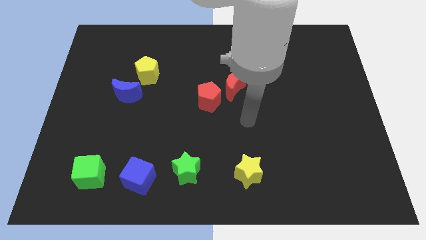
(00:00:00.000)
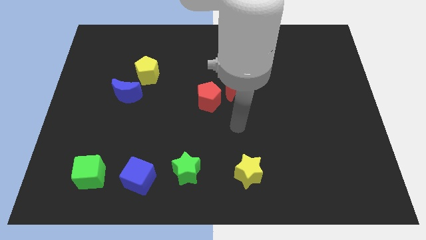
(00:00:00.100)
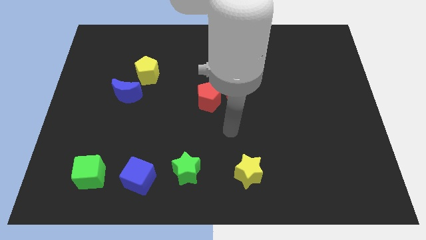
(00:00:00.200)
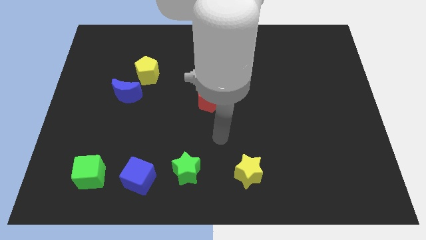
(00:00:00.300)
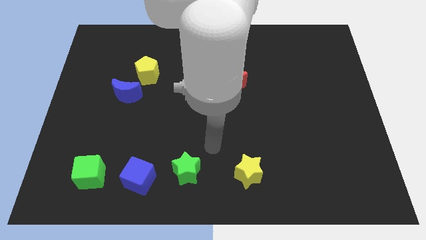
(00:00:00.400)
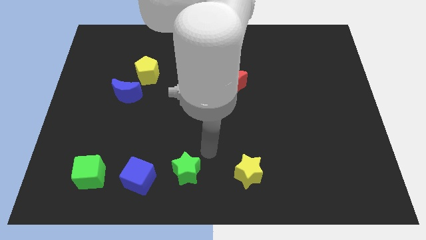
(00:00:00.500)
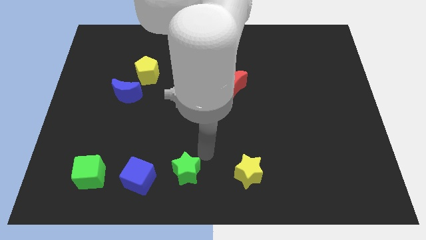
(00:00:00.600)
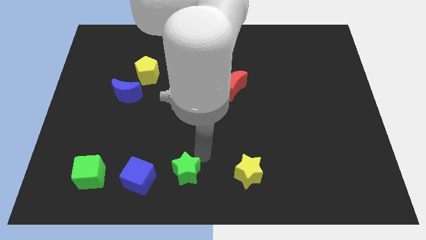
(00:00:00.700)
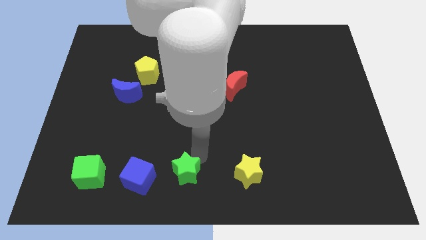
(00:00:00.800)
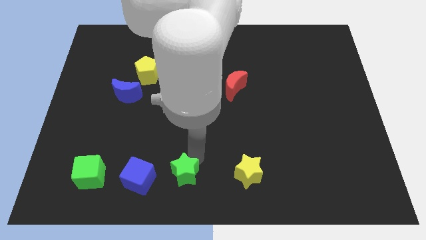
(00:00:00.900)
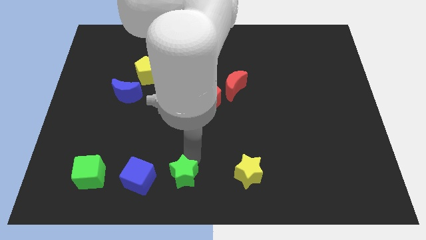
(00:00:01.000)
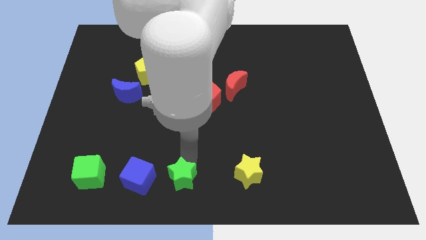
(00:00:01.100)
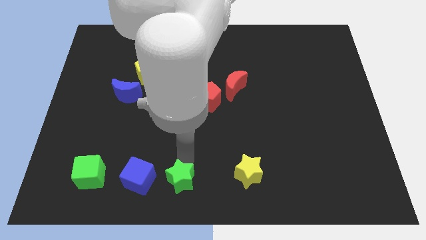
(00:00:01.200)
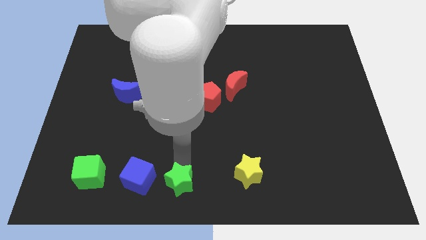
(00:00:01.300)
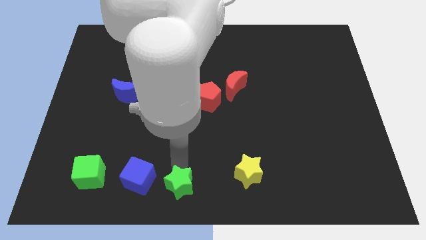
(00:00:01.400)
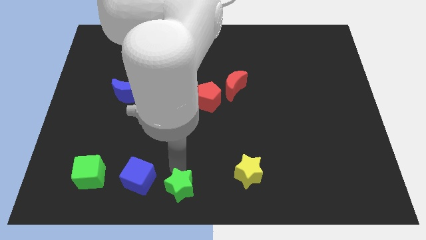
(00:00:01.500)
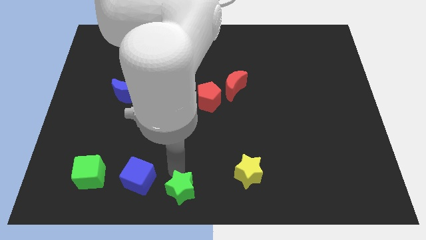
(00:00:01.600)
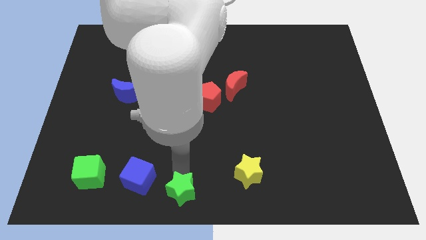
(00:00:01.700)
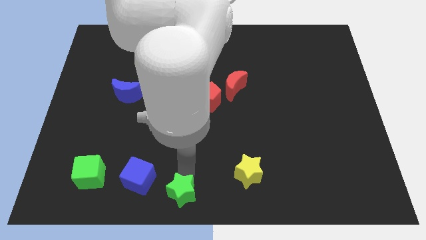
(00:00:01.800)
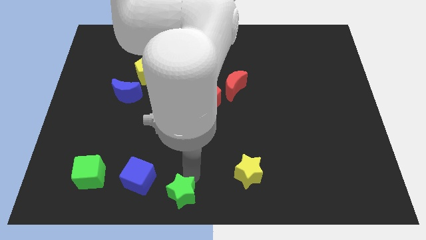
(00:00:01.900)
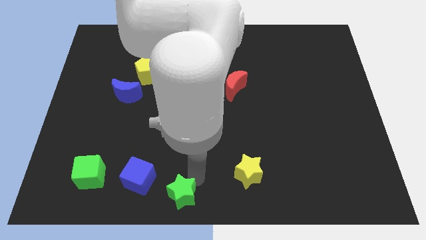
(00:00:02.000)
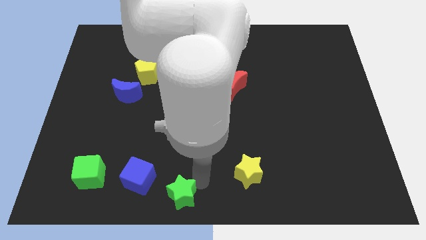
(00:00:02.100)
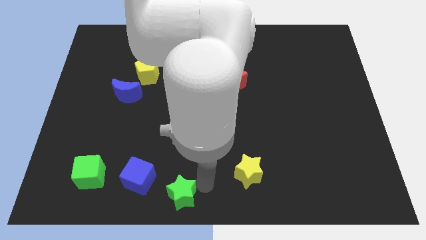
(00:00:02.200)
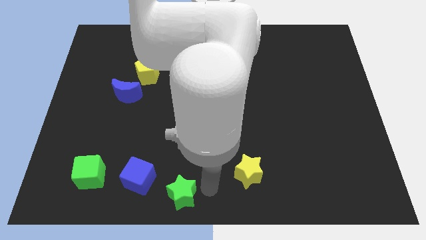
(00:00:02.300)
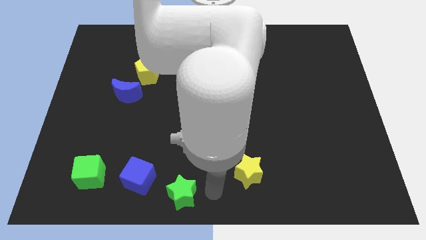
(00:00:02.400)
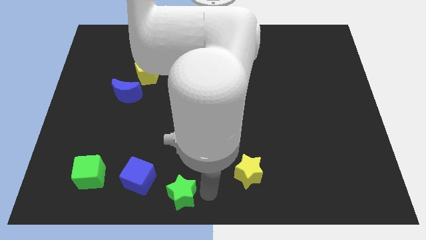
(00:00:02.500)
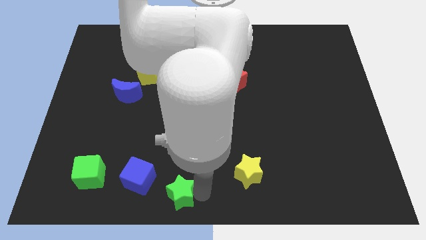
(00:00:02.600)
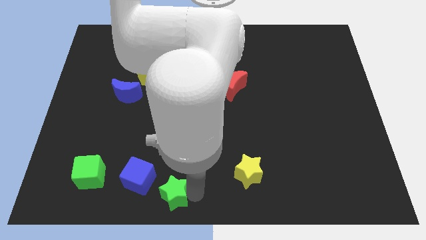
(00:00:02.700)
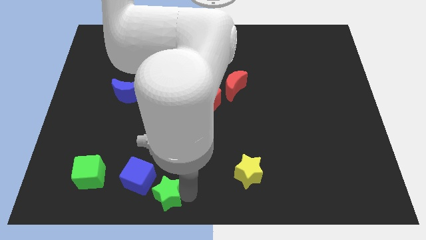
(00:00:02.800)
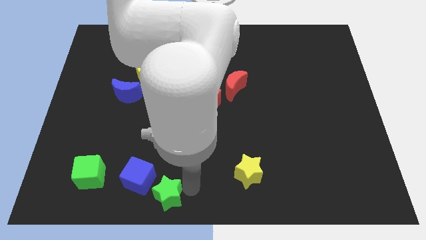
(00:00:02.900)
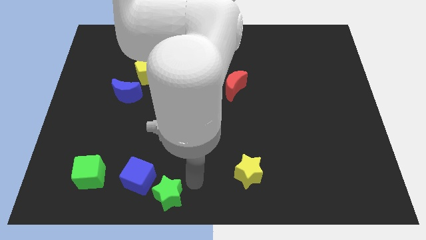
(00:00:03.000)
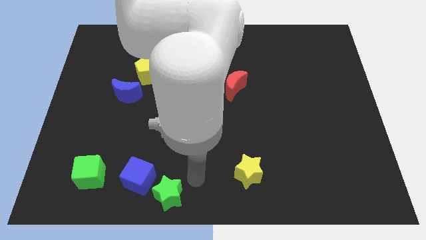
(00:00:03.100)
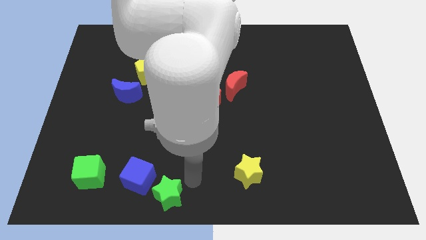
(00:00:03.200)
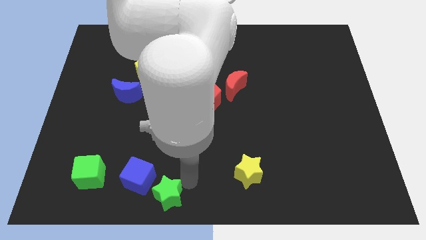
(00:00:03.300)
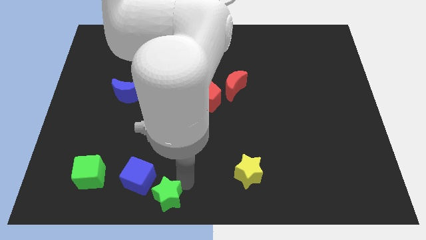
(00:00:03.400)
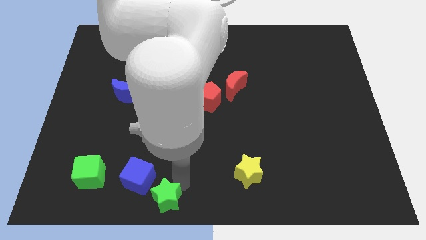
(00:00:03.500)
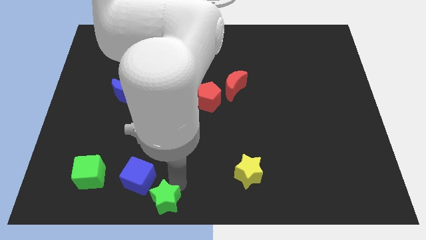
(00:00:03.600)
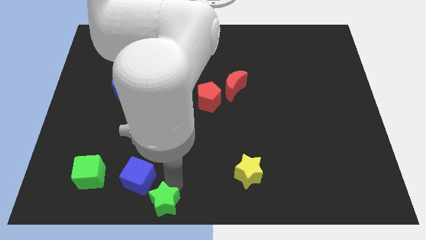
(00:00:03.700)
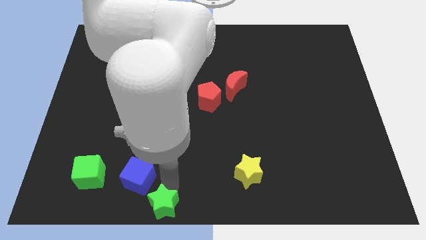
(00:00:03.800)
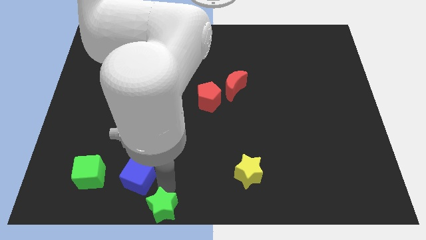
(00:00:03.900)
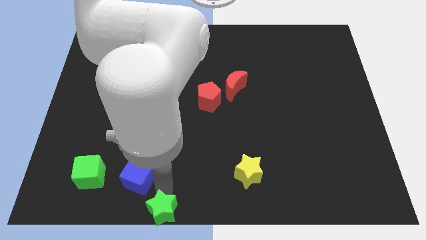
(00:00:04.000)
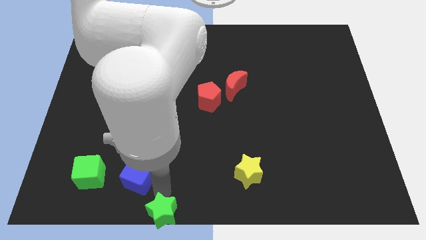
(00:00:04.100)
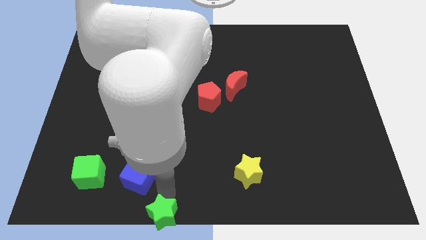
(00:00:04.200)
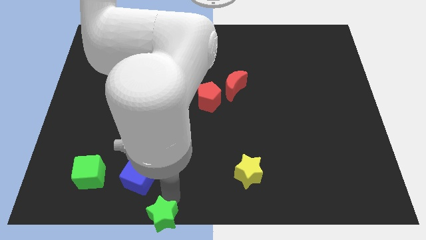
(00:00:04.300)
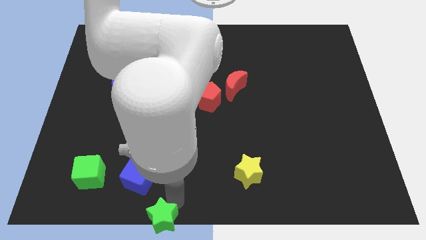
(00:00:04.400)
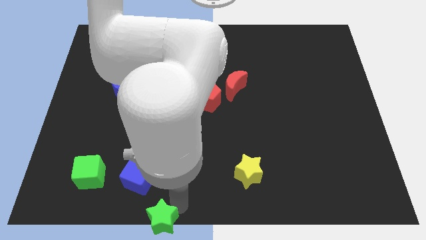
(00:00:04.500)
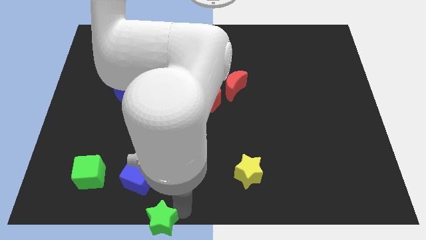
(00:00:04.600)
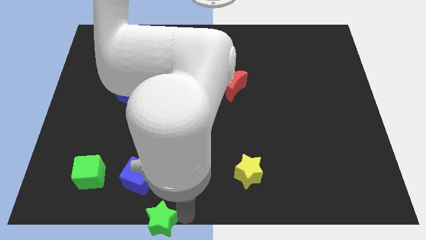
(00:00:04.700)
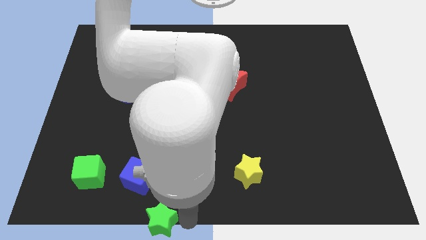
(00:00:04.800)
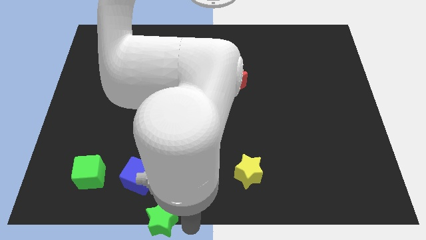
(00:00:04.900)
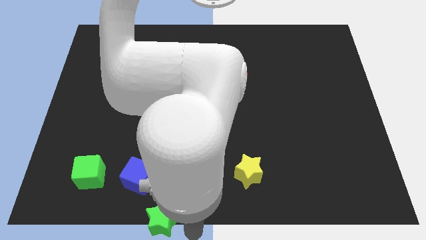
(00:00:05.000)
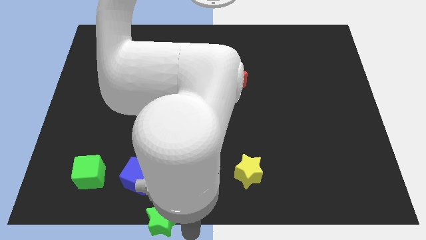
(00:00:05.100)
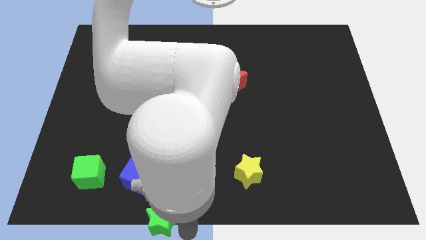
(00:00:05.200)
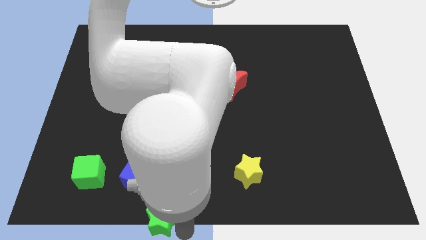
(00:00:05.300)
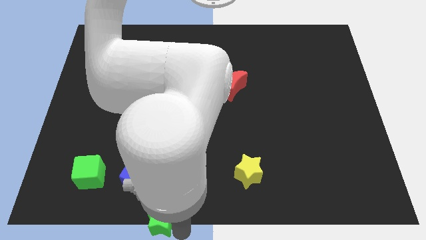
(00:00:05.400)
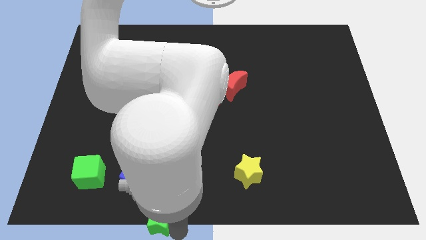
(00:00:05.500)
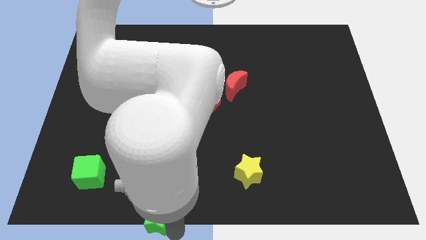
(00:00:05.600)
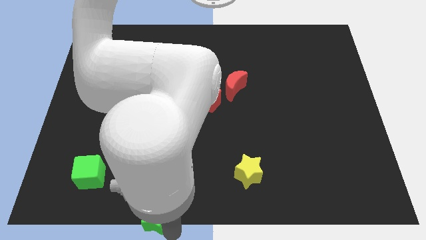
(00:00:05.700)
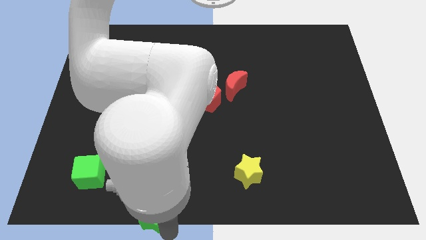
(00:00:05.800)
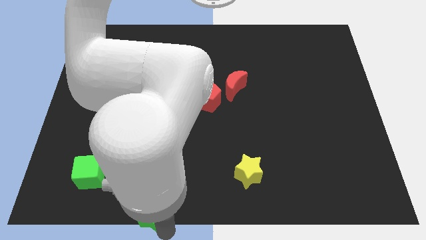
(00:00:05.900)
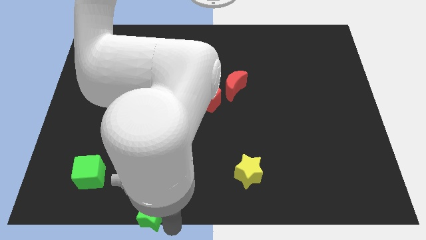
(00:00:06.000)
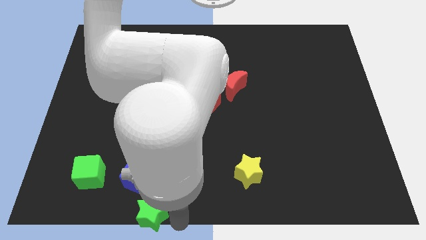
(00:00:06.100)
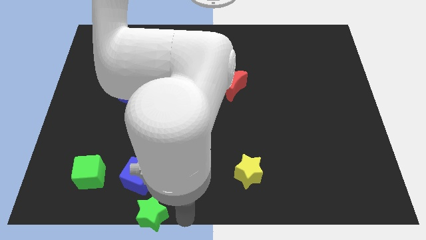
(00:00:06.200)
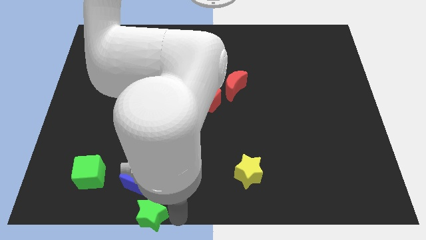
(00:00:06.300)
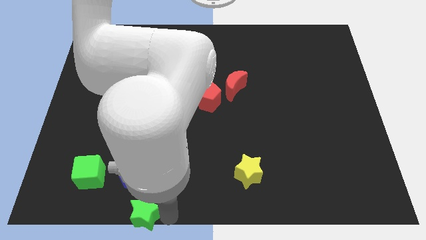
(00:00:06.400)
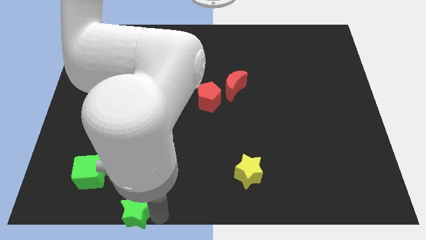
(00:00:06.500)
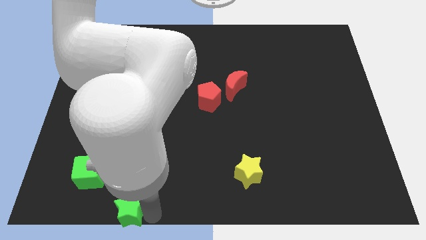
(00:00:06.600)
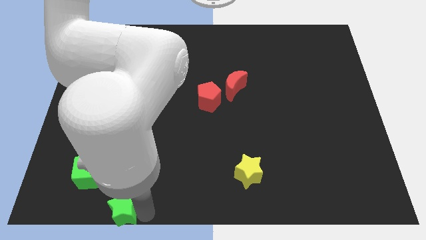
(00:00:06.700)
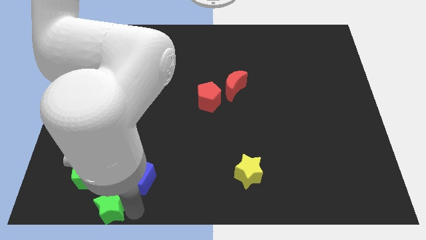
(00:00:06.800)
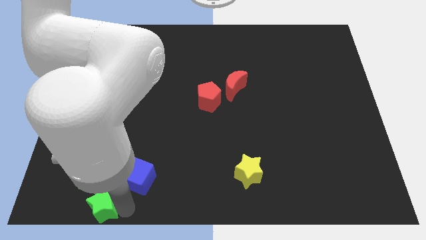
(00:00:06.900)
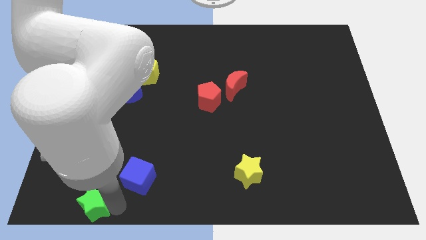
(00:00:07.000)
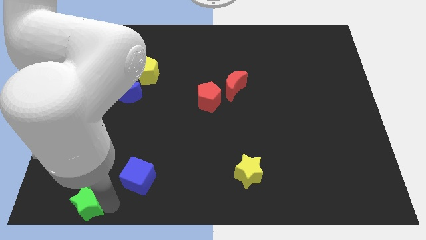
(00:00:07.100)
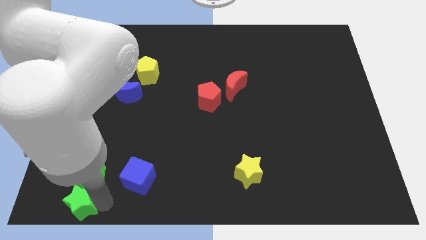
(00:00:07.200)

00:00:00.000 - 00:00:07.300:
move the green star to the lower left corner
